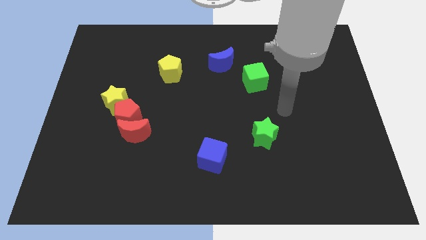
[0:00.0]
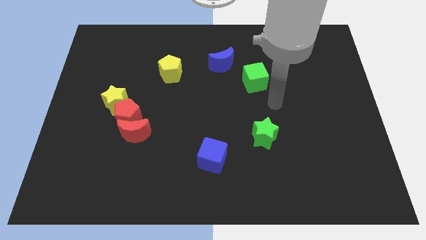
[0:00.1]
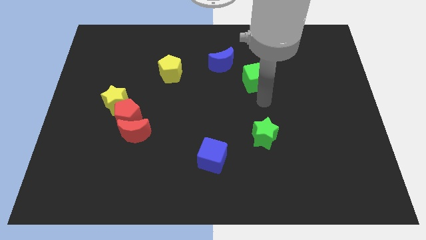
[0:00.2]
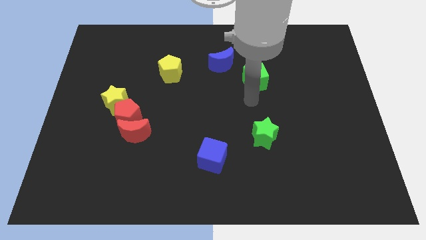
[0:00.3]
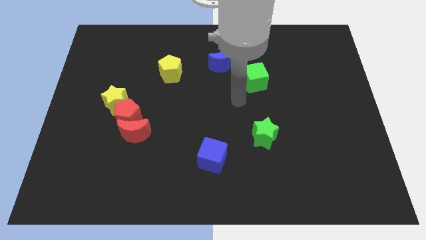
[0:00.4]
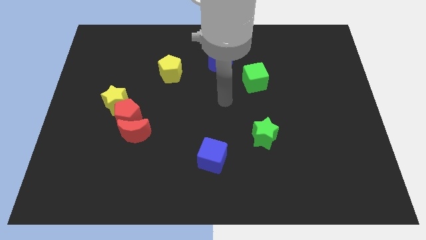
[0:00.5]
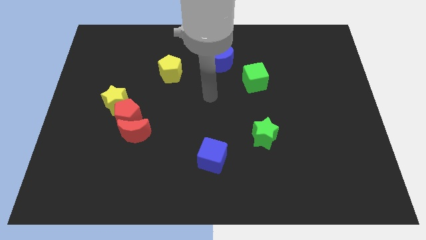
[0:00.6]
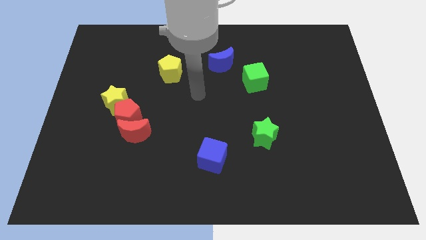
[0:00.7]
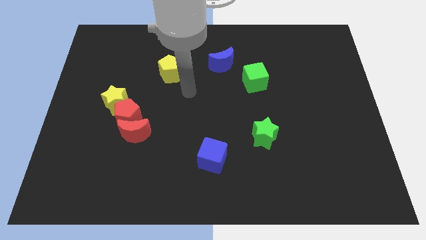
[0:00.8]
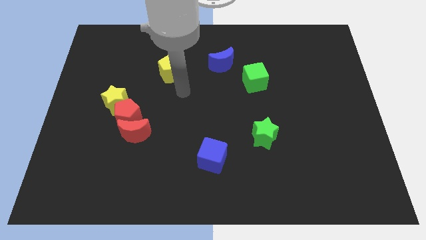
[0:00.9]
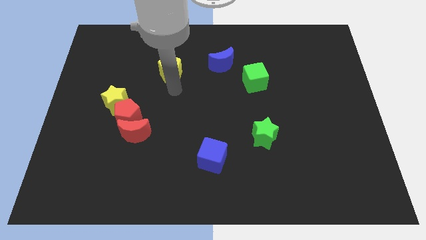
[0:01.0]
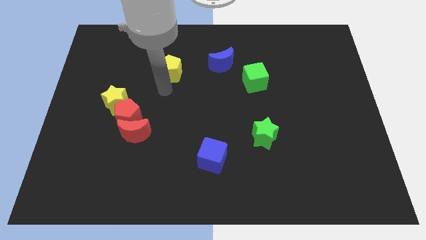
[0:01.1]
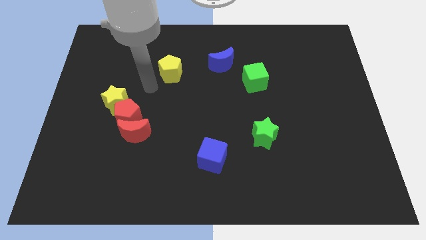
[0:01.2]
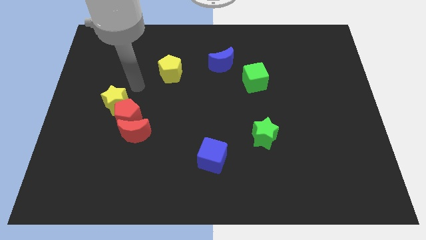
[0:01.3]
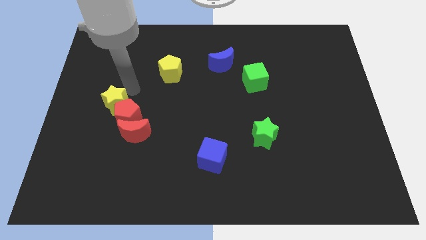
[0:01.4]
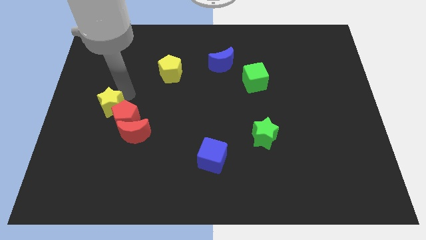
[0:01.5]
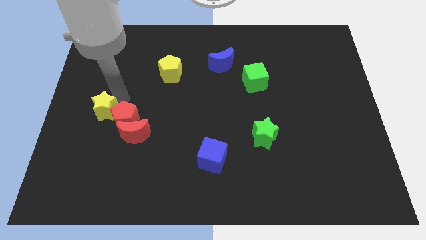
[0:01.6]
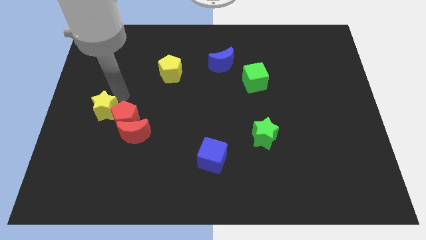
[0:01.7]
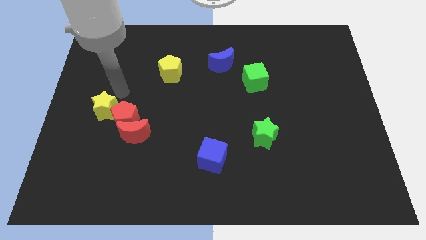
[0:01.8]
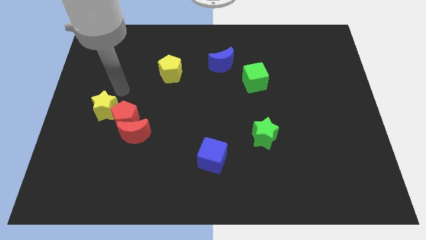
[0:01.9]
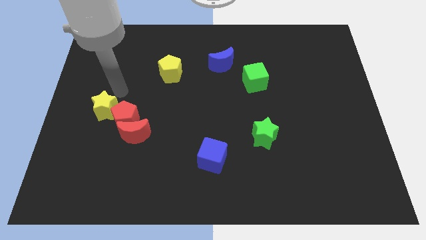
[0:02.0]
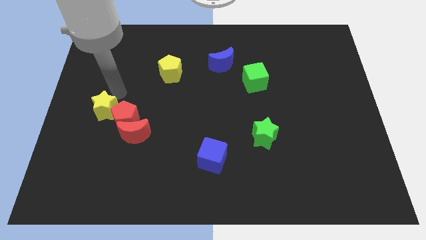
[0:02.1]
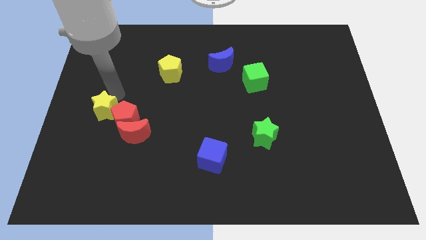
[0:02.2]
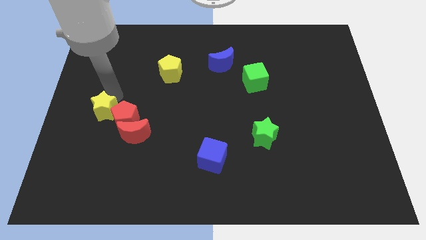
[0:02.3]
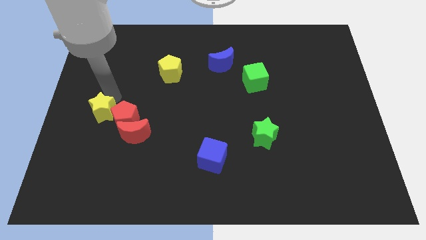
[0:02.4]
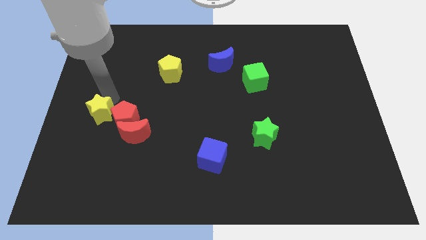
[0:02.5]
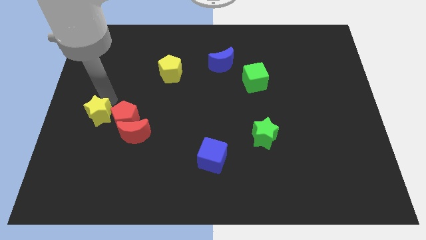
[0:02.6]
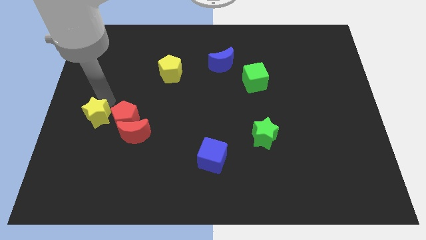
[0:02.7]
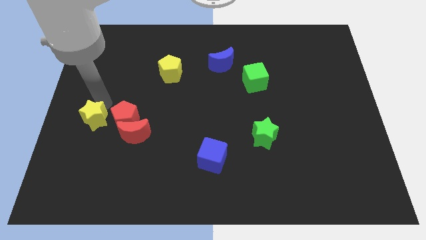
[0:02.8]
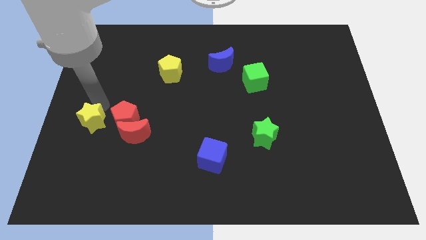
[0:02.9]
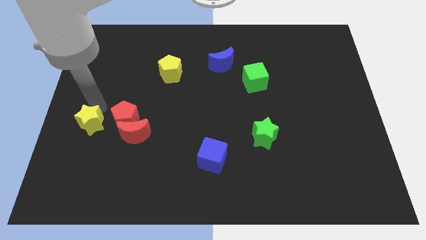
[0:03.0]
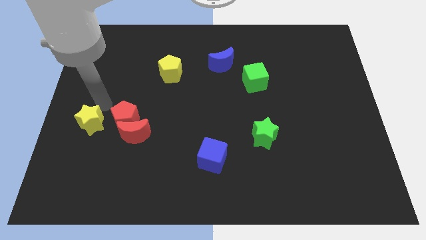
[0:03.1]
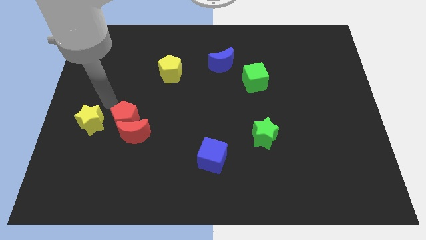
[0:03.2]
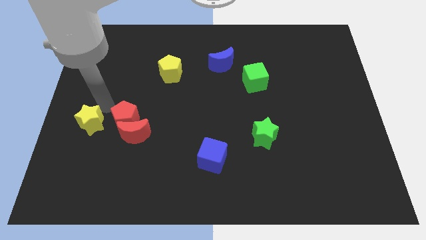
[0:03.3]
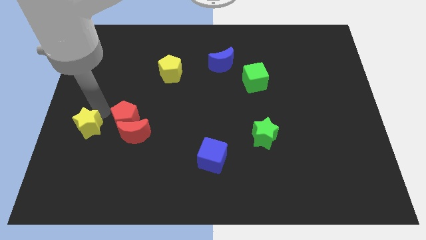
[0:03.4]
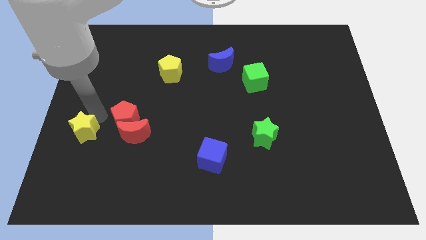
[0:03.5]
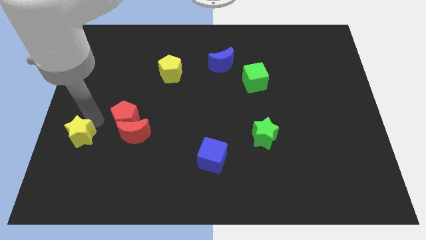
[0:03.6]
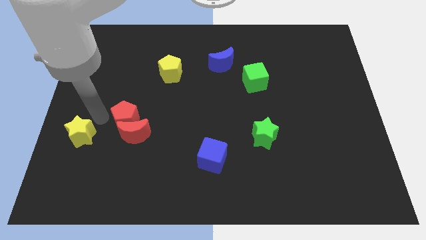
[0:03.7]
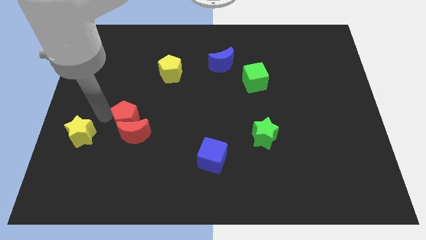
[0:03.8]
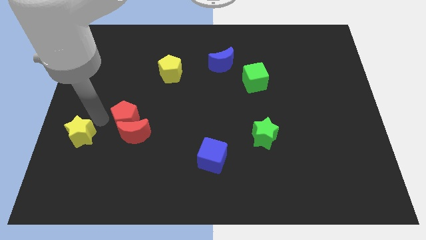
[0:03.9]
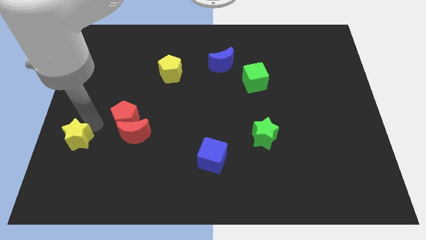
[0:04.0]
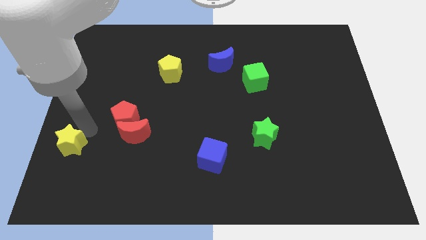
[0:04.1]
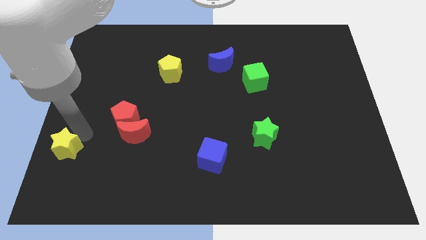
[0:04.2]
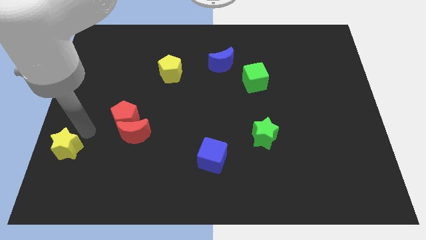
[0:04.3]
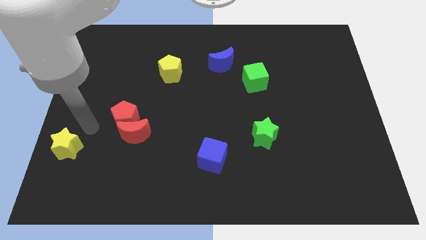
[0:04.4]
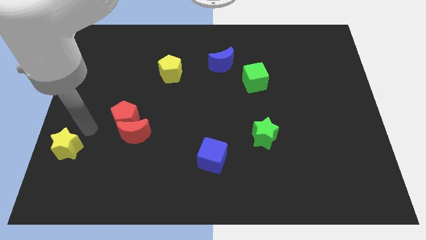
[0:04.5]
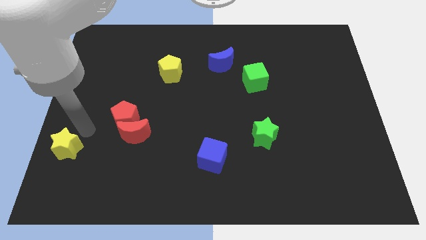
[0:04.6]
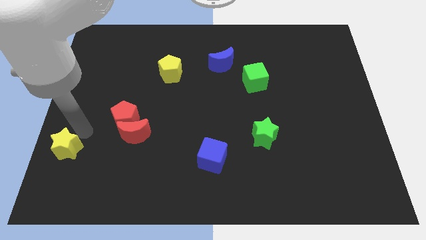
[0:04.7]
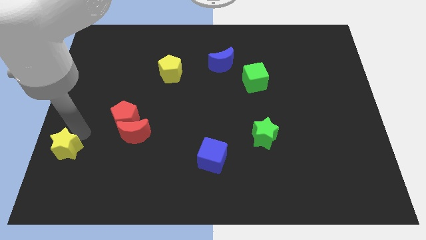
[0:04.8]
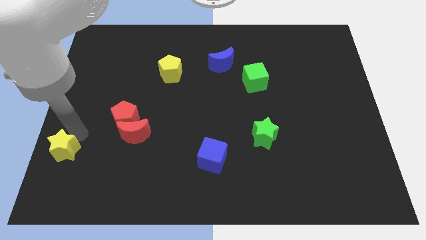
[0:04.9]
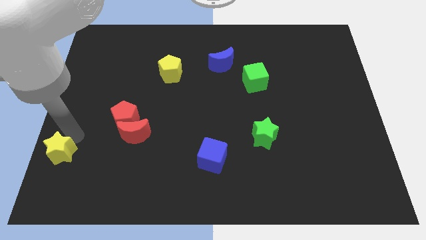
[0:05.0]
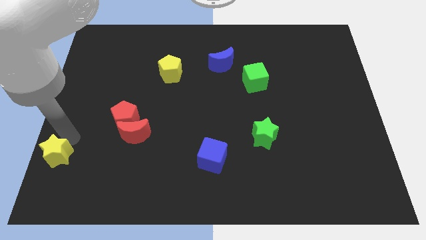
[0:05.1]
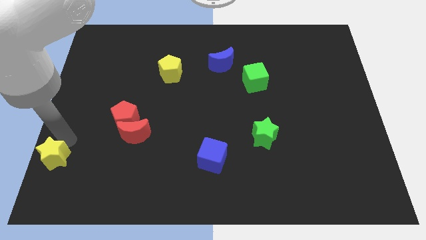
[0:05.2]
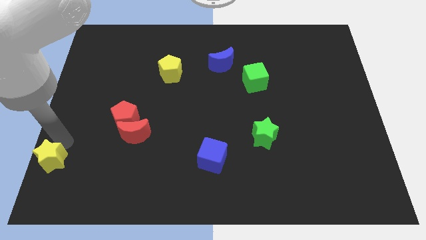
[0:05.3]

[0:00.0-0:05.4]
move the yellow star to the bottom left
